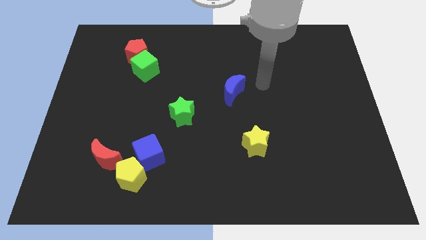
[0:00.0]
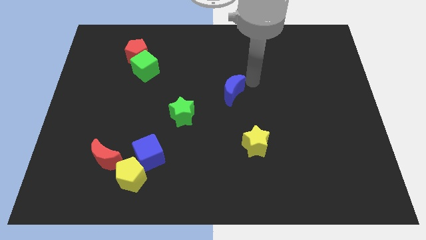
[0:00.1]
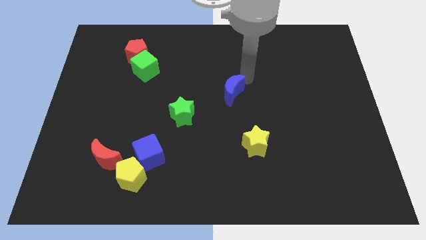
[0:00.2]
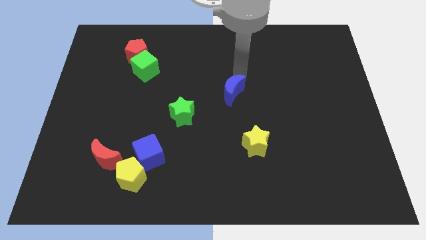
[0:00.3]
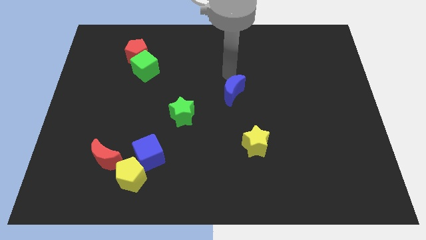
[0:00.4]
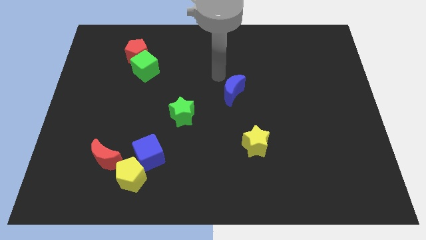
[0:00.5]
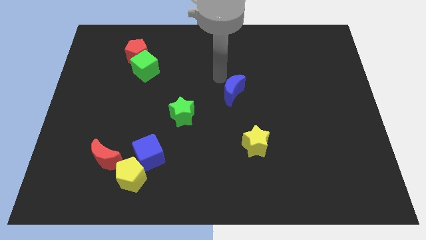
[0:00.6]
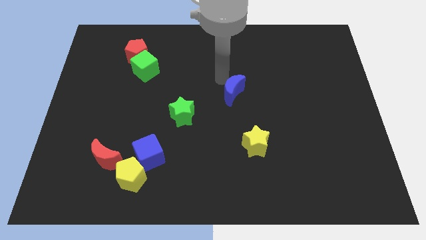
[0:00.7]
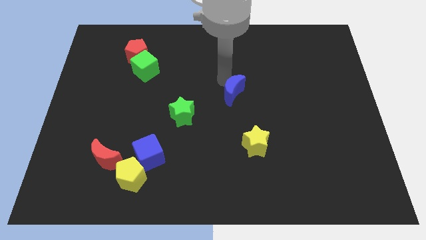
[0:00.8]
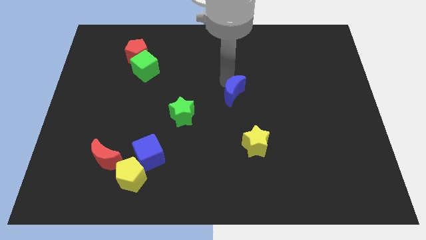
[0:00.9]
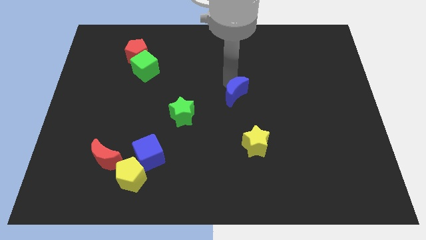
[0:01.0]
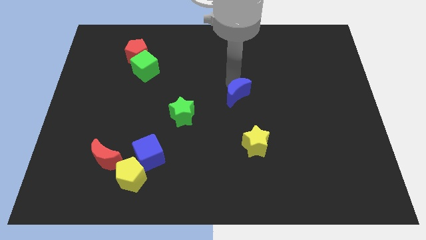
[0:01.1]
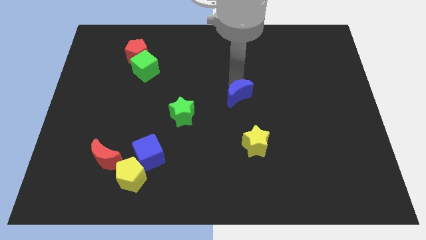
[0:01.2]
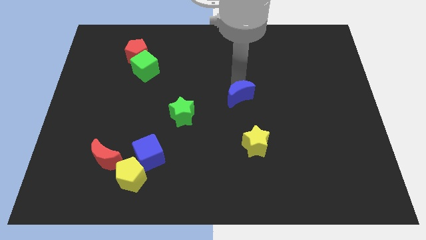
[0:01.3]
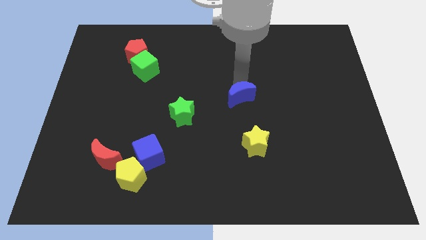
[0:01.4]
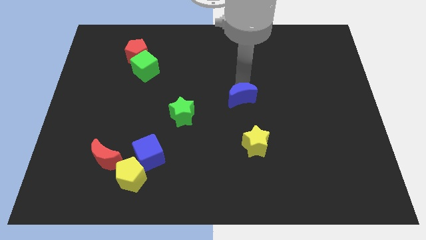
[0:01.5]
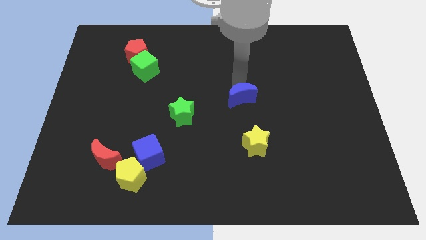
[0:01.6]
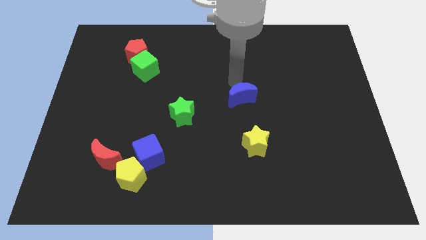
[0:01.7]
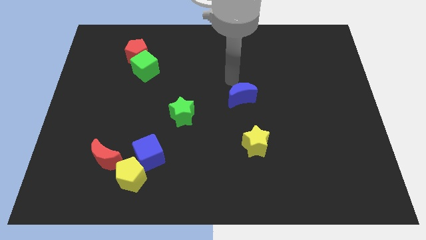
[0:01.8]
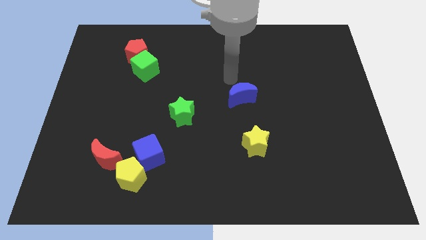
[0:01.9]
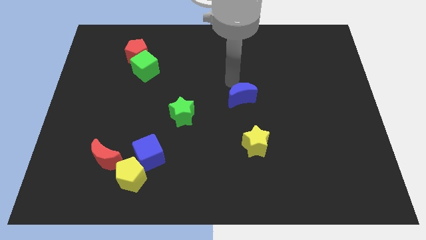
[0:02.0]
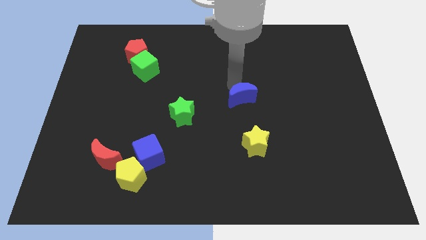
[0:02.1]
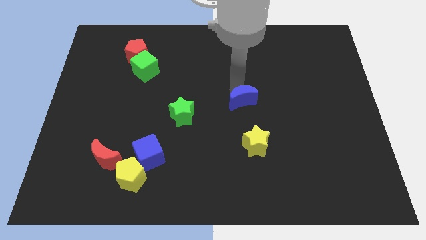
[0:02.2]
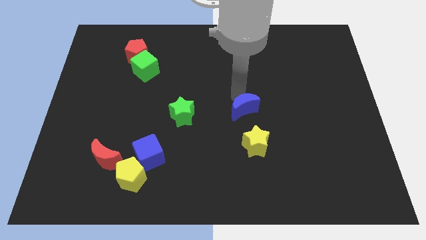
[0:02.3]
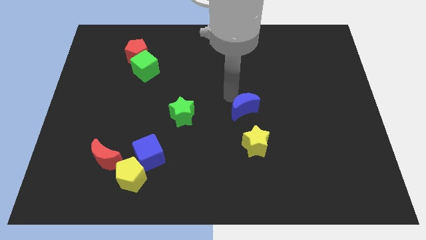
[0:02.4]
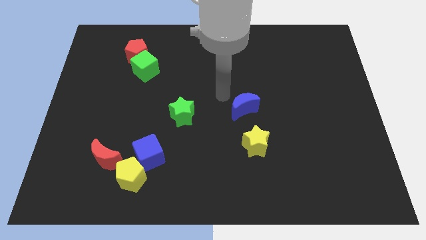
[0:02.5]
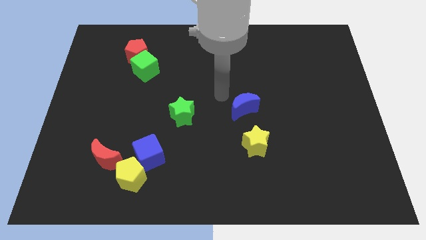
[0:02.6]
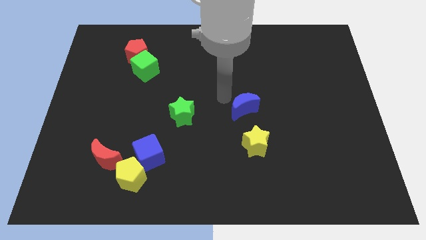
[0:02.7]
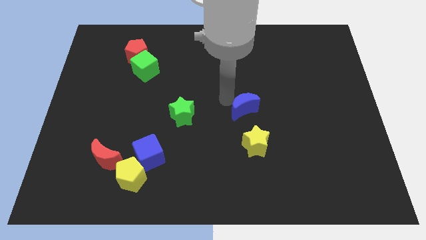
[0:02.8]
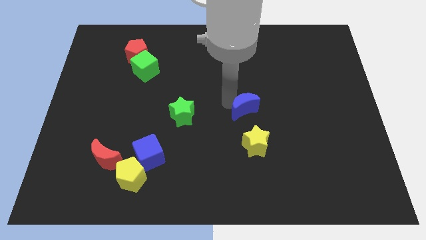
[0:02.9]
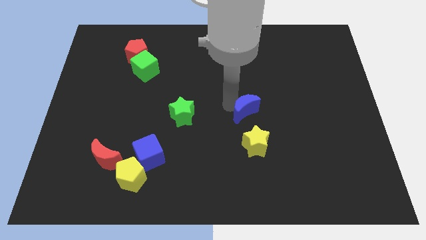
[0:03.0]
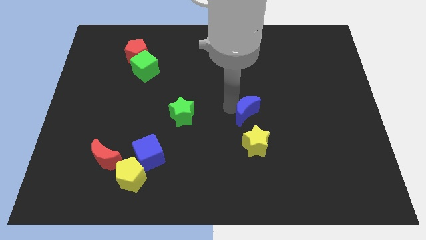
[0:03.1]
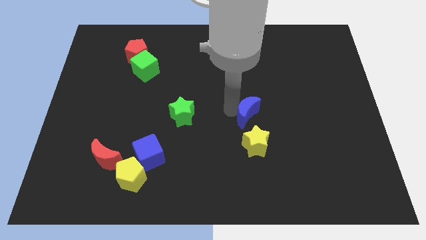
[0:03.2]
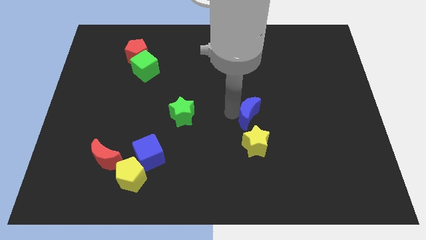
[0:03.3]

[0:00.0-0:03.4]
push the blue moon downwards and right a bit

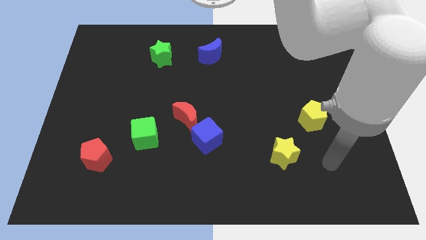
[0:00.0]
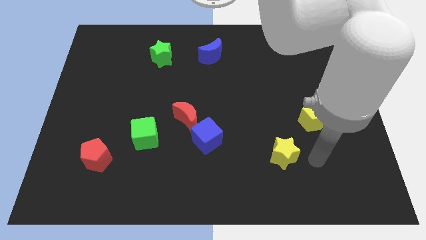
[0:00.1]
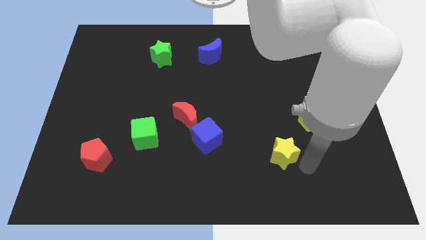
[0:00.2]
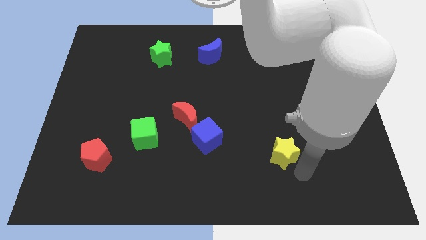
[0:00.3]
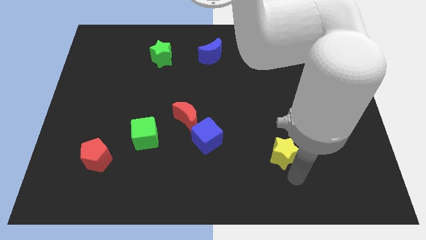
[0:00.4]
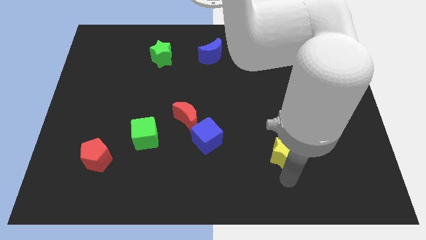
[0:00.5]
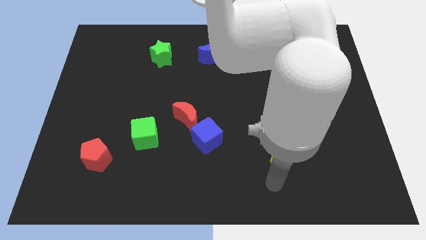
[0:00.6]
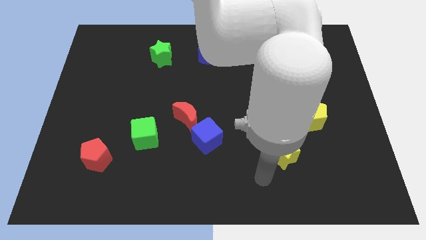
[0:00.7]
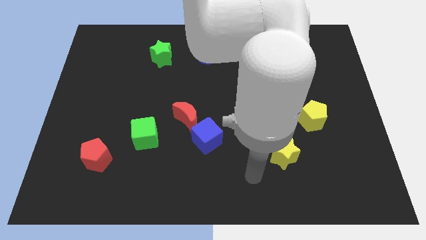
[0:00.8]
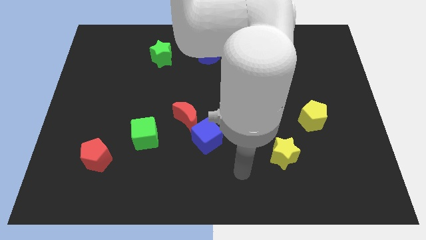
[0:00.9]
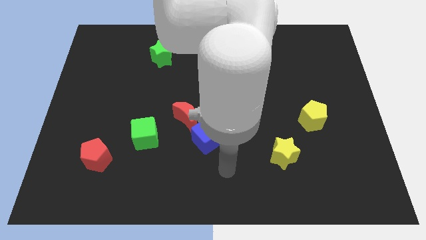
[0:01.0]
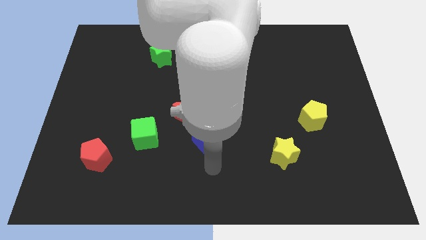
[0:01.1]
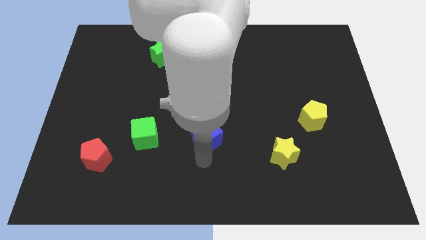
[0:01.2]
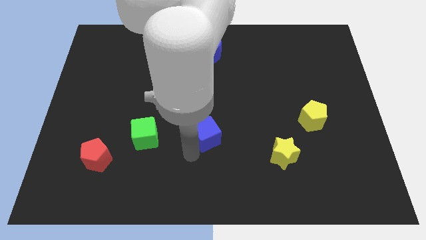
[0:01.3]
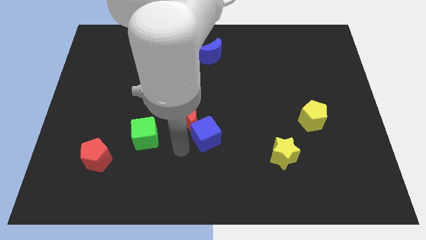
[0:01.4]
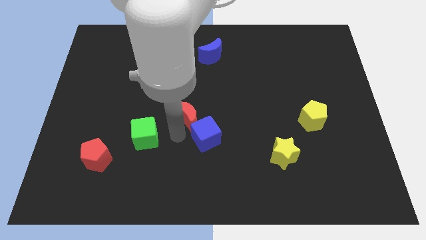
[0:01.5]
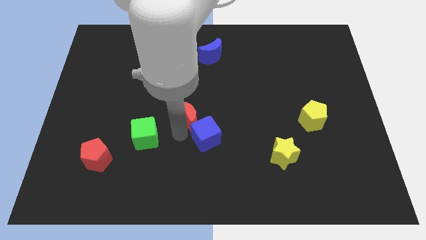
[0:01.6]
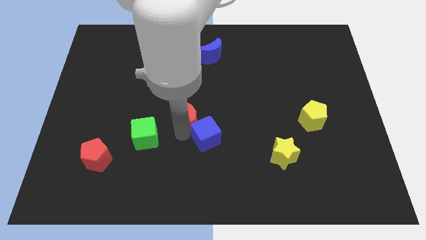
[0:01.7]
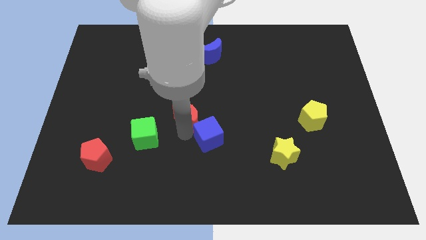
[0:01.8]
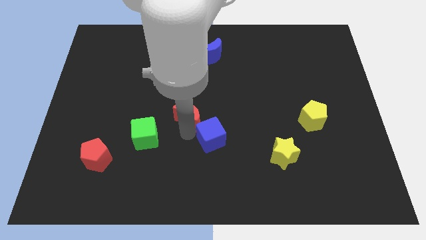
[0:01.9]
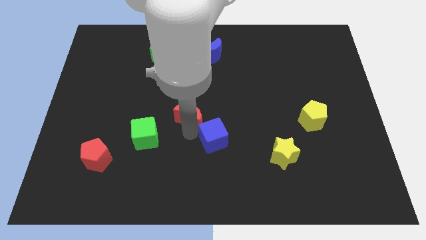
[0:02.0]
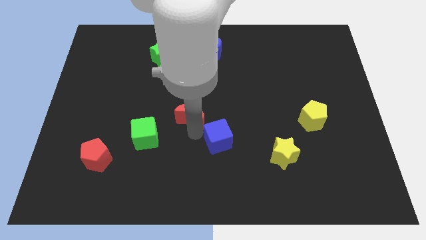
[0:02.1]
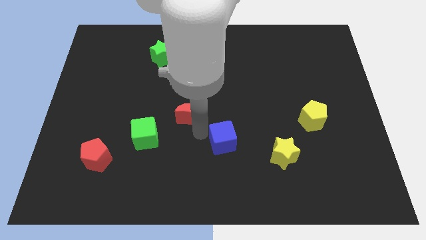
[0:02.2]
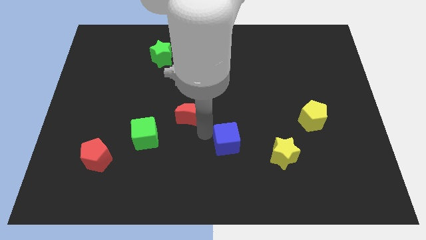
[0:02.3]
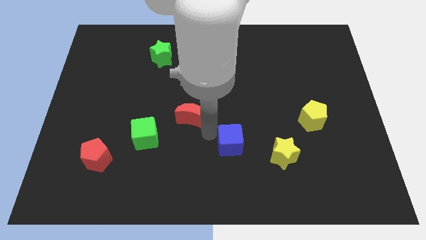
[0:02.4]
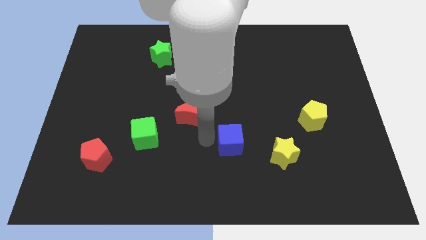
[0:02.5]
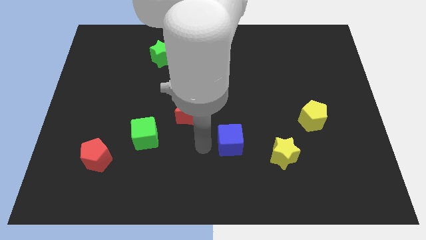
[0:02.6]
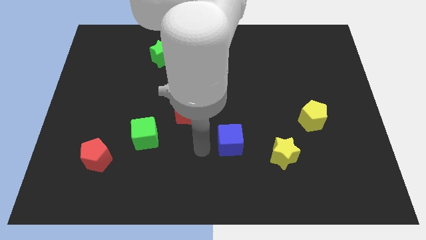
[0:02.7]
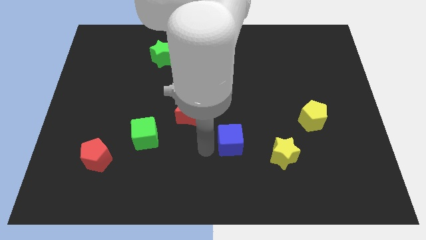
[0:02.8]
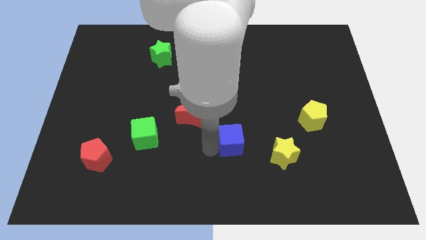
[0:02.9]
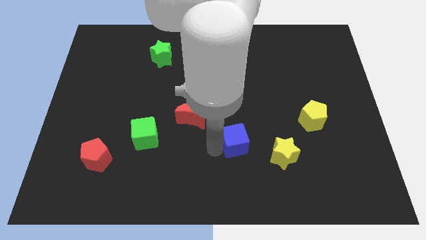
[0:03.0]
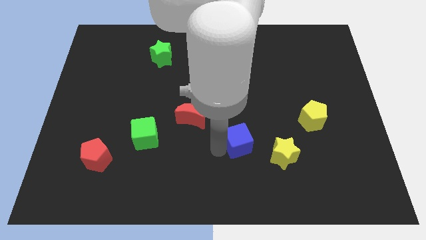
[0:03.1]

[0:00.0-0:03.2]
push the blue cube right a bit

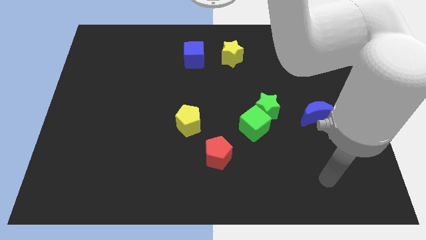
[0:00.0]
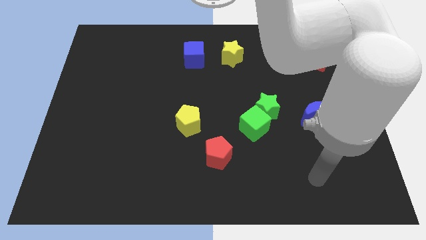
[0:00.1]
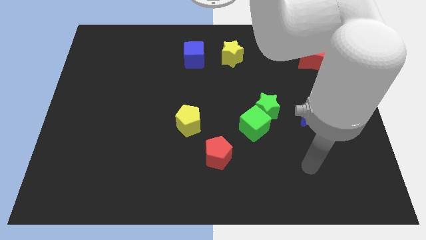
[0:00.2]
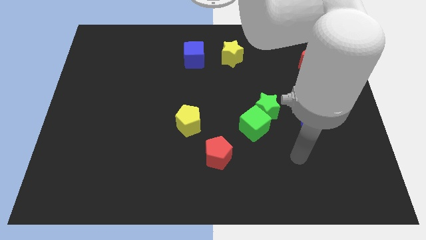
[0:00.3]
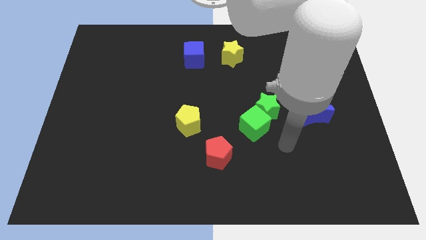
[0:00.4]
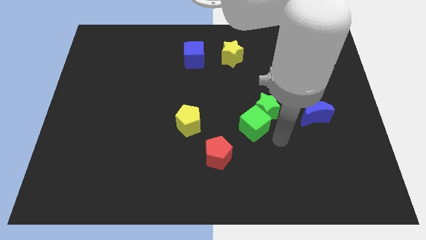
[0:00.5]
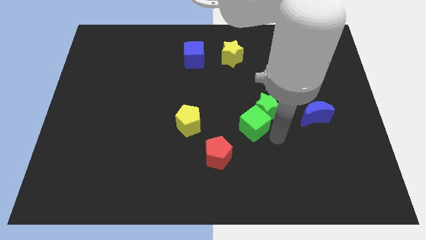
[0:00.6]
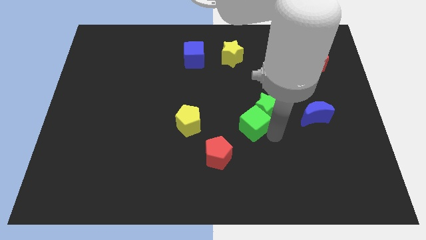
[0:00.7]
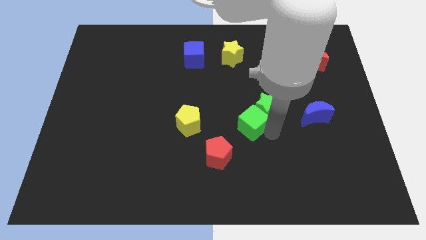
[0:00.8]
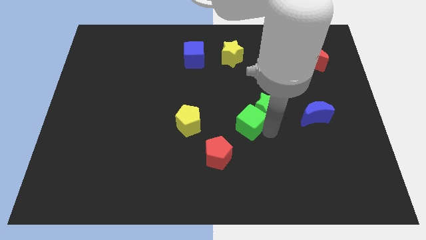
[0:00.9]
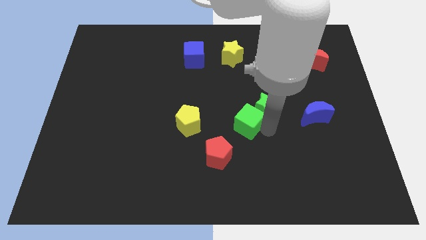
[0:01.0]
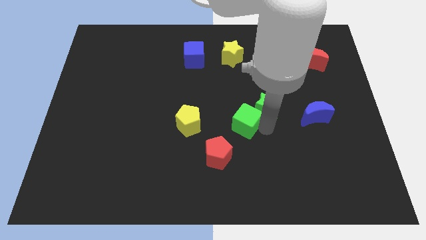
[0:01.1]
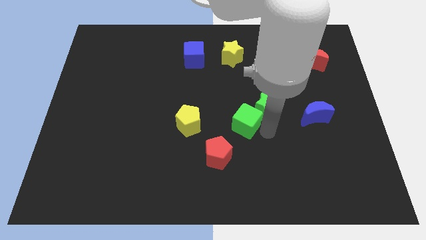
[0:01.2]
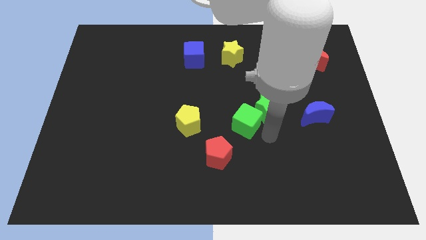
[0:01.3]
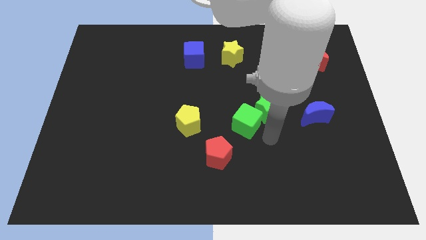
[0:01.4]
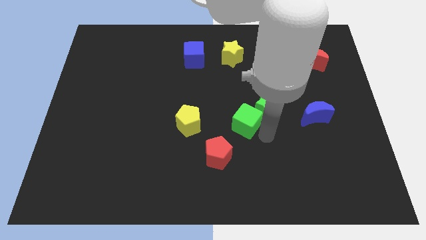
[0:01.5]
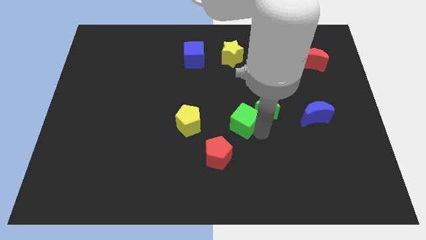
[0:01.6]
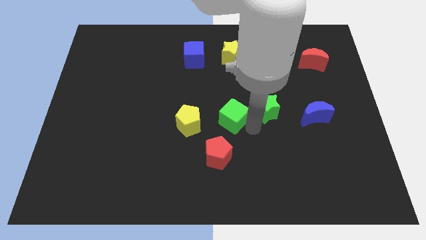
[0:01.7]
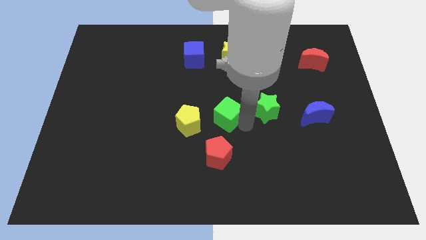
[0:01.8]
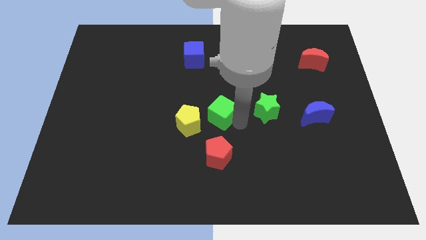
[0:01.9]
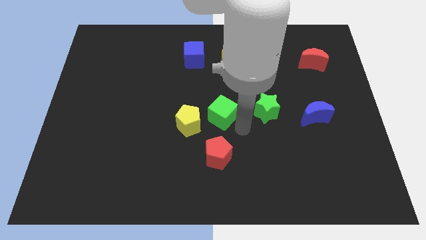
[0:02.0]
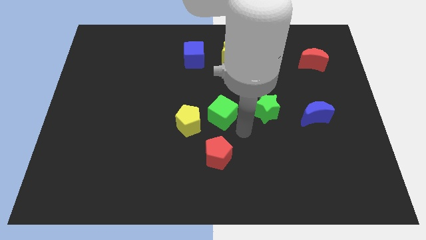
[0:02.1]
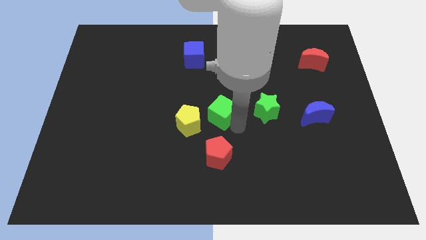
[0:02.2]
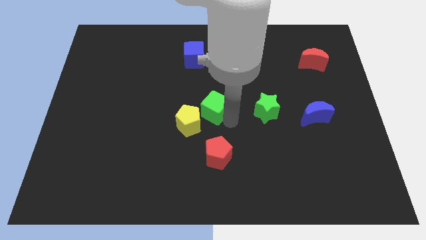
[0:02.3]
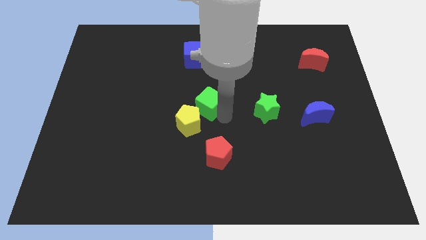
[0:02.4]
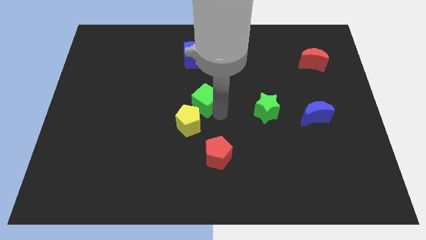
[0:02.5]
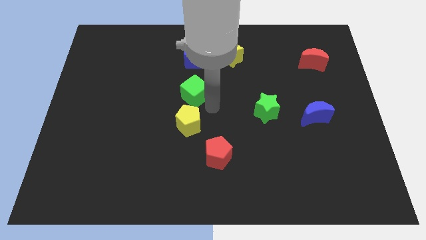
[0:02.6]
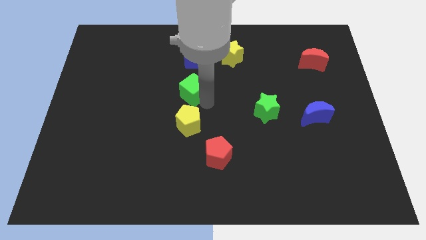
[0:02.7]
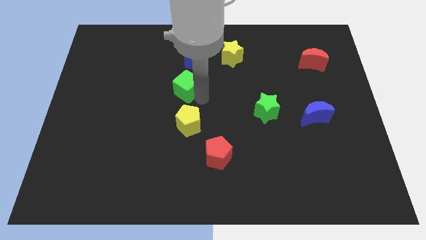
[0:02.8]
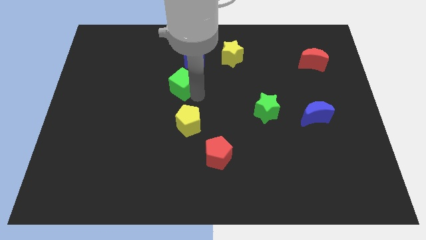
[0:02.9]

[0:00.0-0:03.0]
move the green cube diagonally upwards and left
